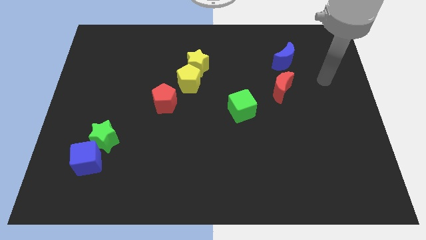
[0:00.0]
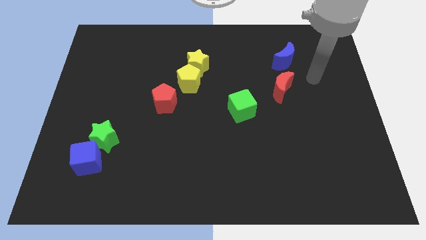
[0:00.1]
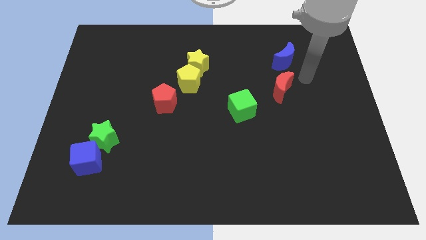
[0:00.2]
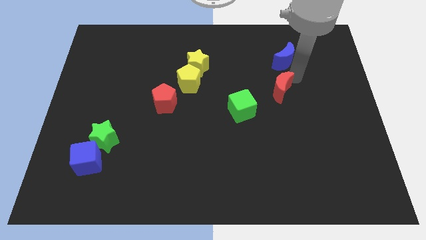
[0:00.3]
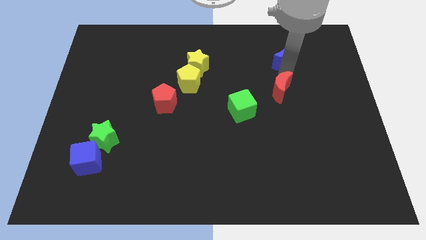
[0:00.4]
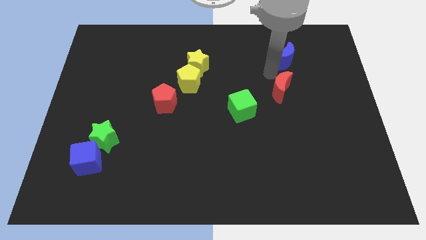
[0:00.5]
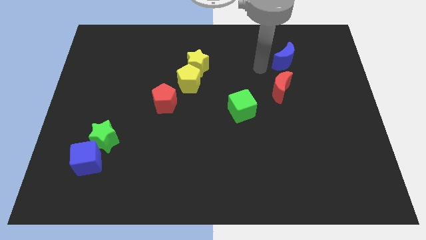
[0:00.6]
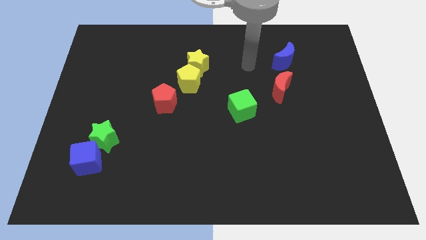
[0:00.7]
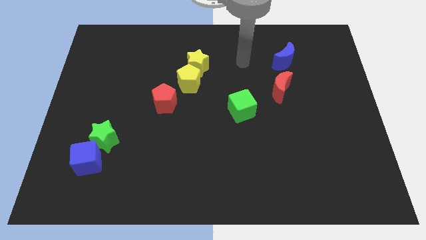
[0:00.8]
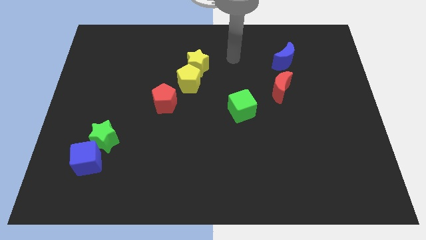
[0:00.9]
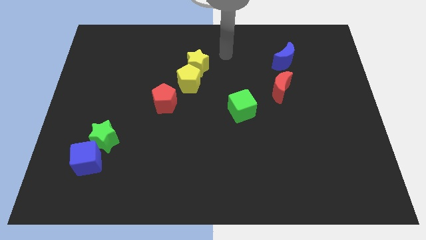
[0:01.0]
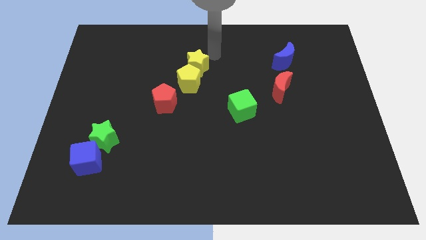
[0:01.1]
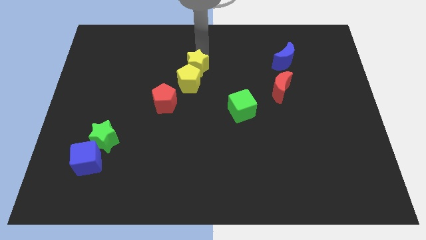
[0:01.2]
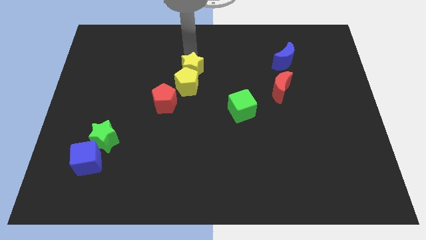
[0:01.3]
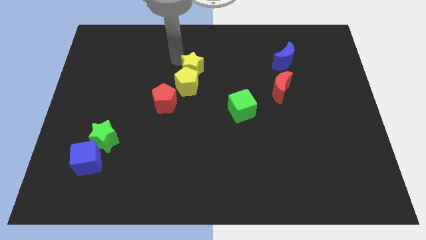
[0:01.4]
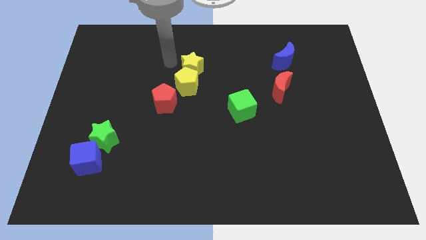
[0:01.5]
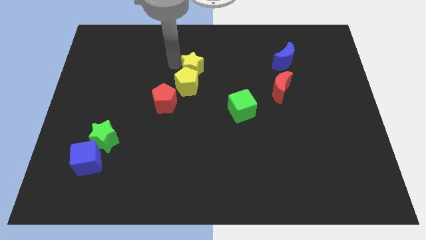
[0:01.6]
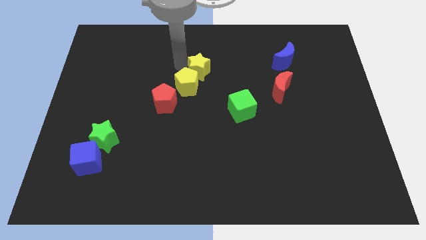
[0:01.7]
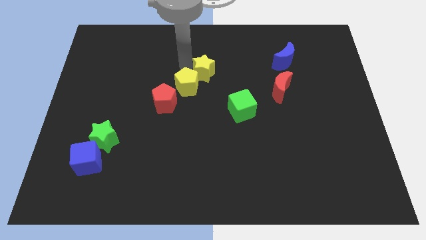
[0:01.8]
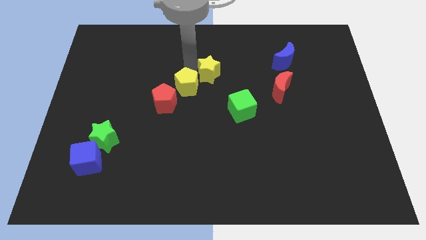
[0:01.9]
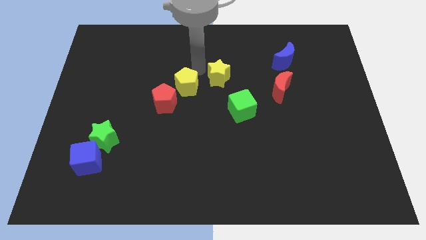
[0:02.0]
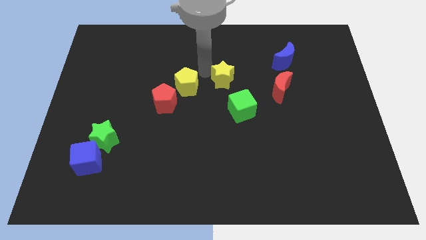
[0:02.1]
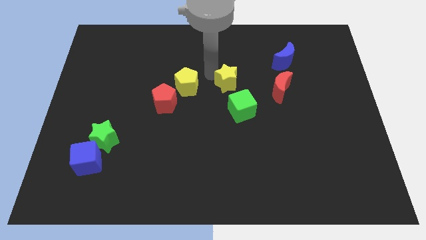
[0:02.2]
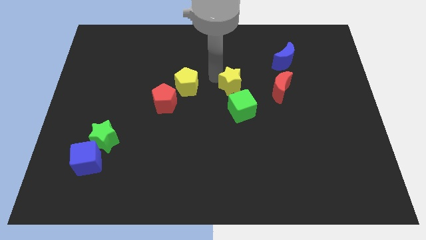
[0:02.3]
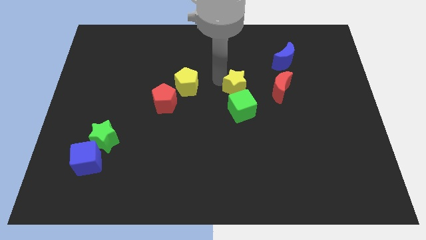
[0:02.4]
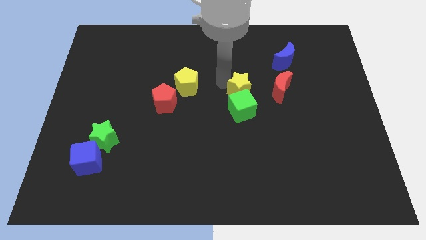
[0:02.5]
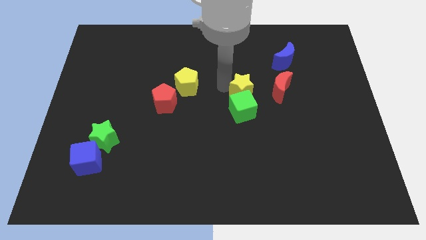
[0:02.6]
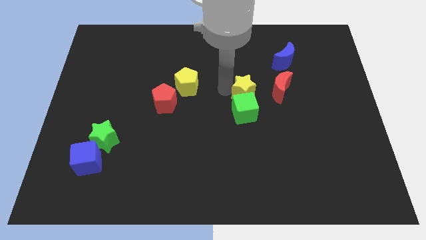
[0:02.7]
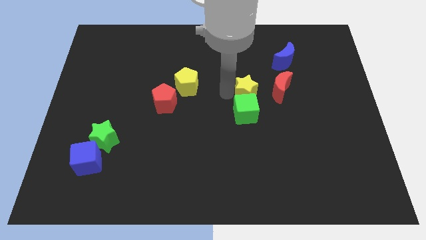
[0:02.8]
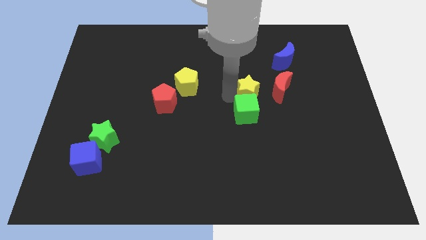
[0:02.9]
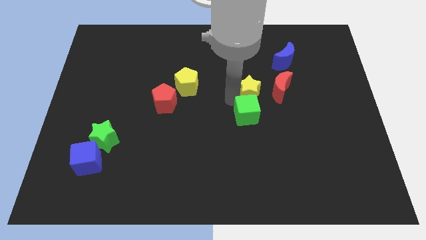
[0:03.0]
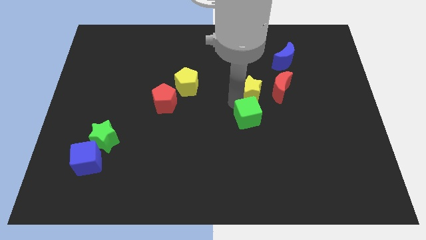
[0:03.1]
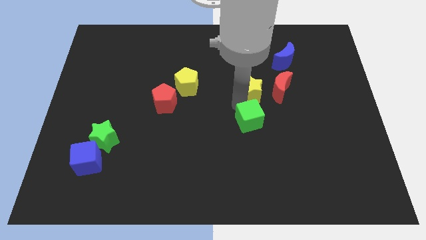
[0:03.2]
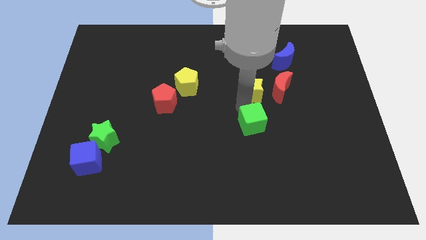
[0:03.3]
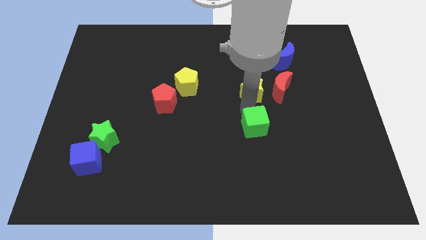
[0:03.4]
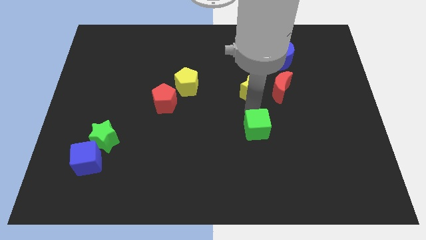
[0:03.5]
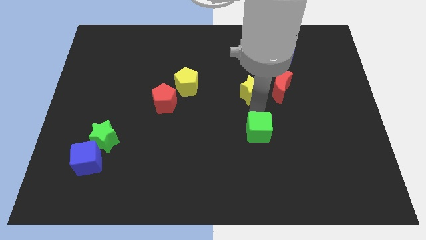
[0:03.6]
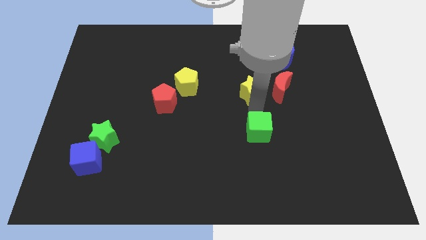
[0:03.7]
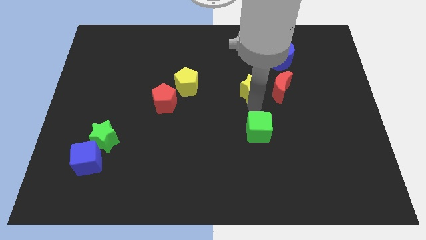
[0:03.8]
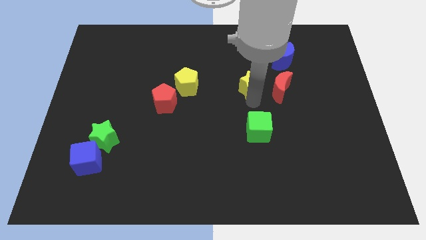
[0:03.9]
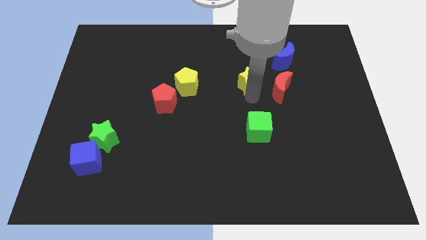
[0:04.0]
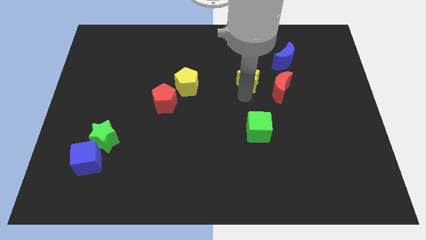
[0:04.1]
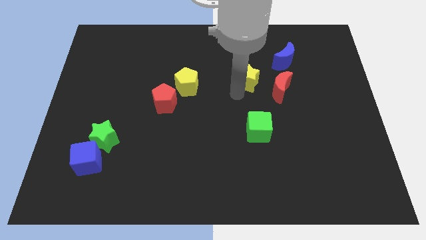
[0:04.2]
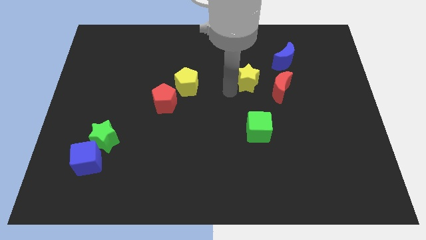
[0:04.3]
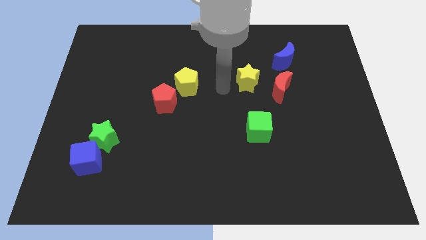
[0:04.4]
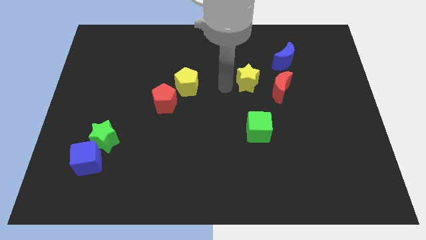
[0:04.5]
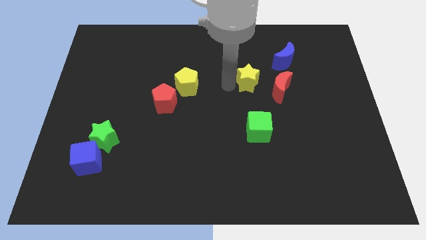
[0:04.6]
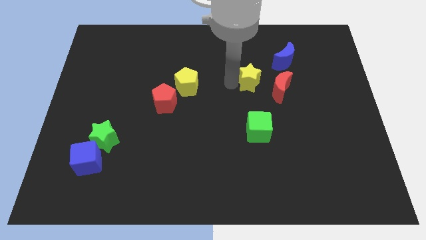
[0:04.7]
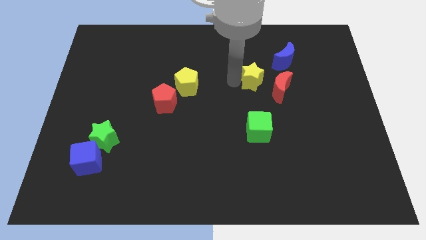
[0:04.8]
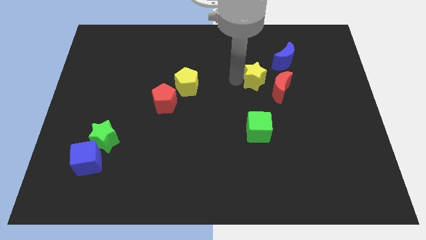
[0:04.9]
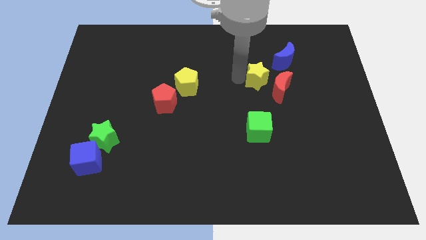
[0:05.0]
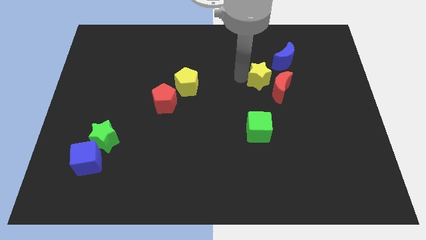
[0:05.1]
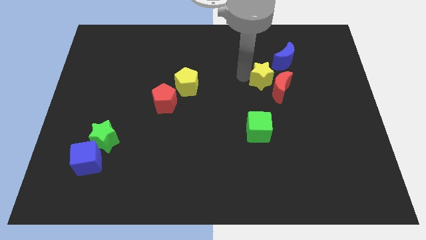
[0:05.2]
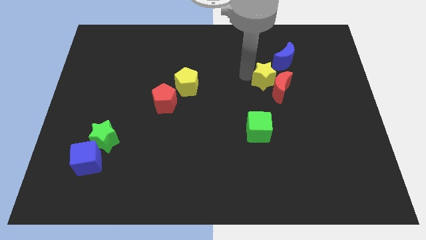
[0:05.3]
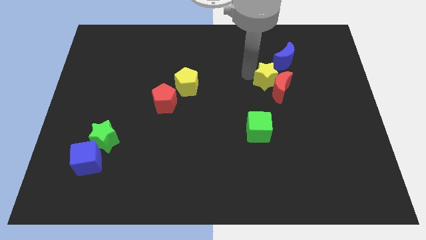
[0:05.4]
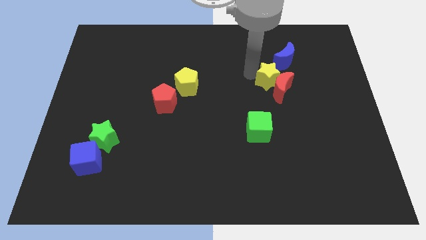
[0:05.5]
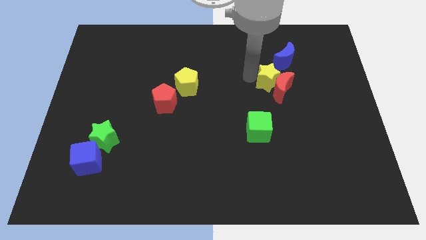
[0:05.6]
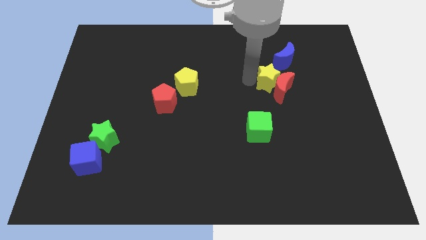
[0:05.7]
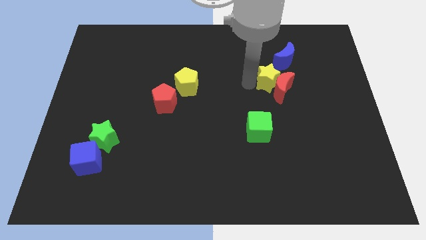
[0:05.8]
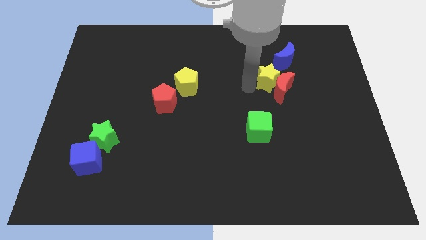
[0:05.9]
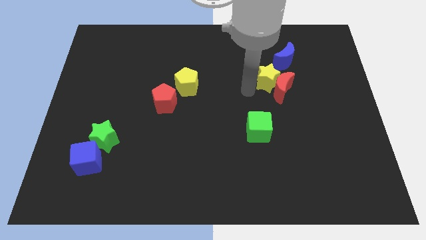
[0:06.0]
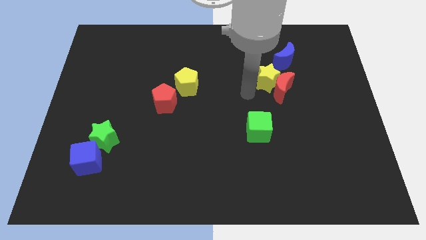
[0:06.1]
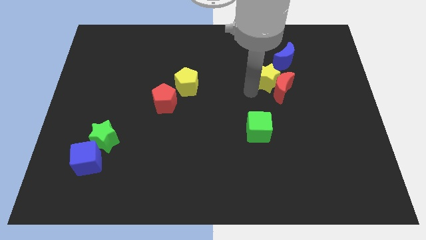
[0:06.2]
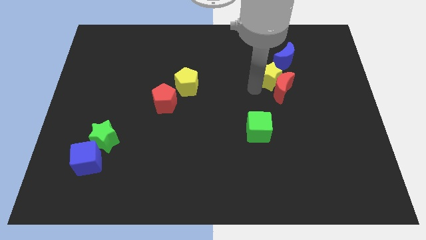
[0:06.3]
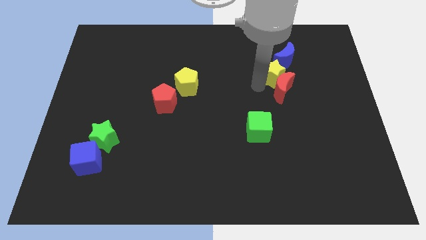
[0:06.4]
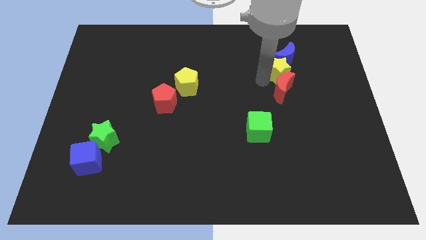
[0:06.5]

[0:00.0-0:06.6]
push the yellow star right

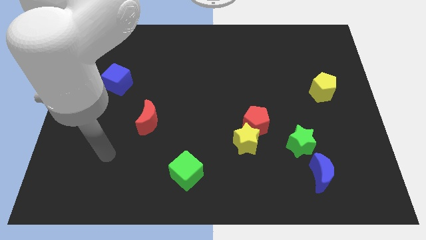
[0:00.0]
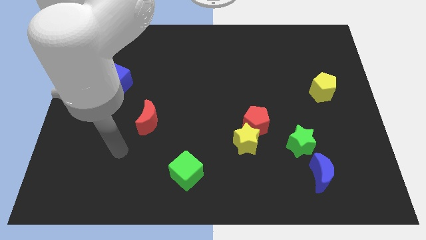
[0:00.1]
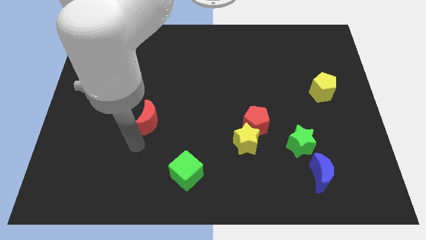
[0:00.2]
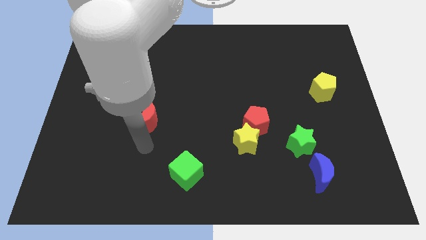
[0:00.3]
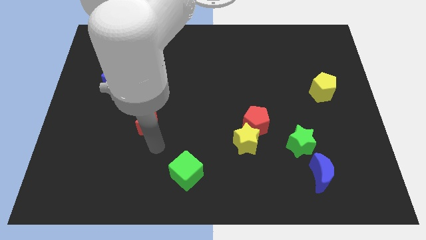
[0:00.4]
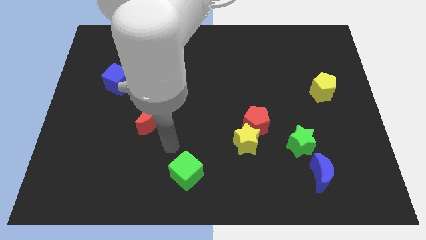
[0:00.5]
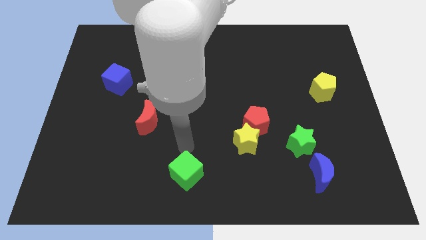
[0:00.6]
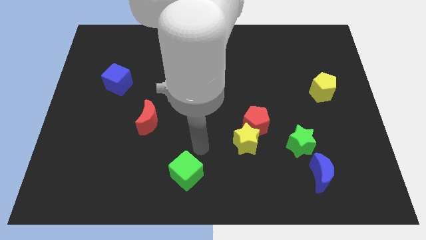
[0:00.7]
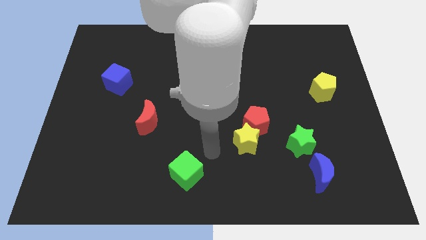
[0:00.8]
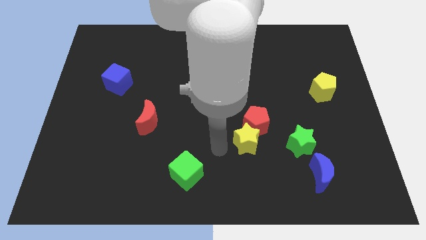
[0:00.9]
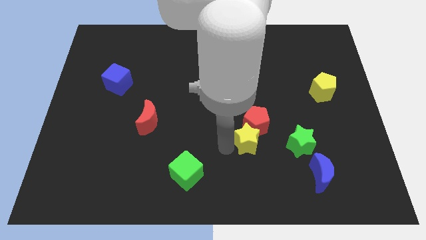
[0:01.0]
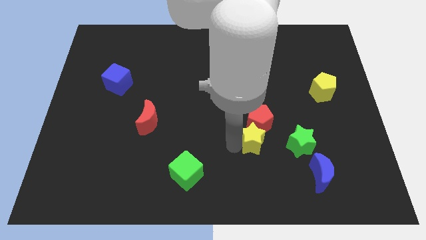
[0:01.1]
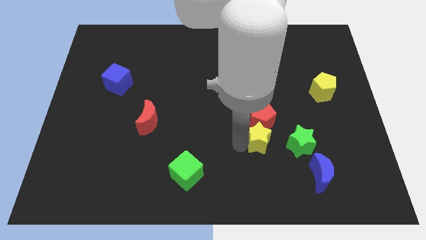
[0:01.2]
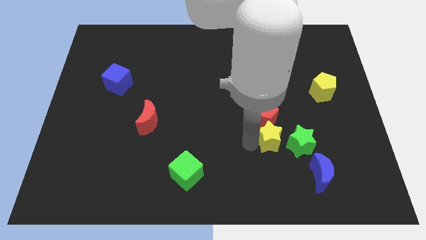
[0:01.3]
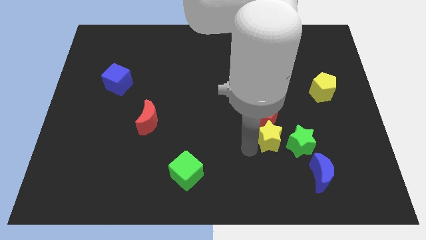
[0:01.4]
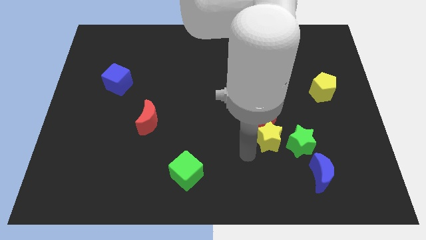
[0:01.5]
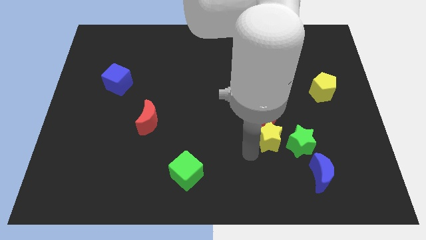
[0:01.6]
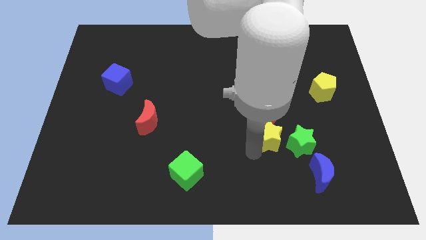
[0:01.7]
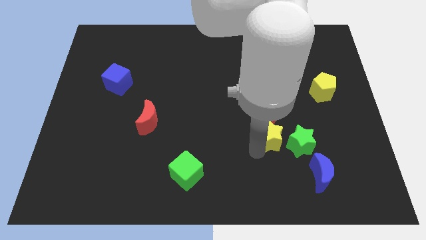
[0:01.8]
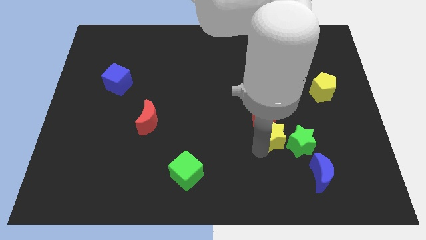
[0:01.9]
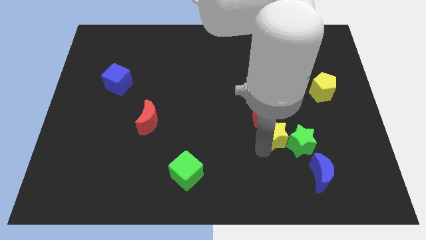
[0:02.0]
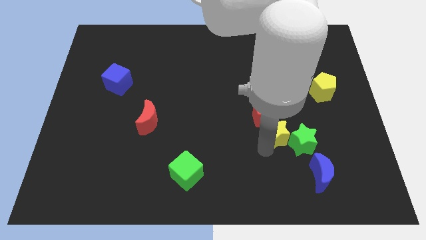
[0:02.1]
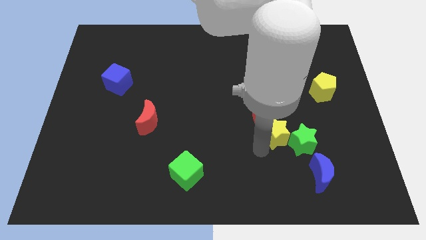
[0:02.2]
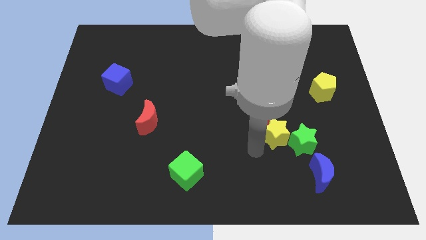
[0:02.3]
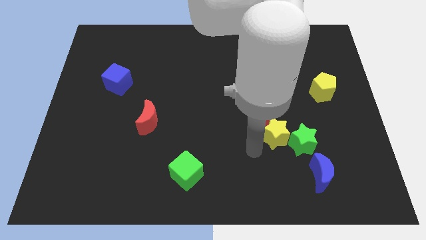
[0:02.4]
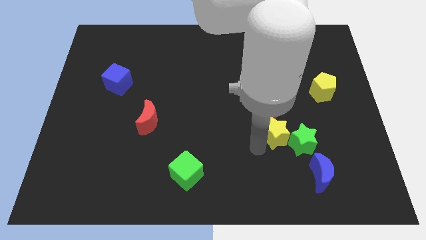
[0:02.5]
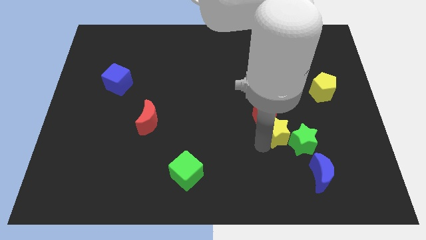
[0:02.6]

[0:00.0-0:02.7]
slightly push the yellow star to the right
